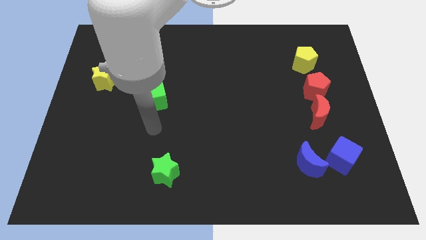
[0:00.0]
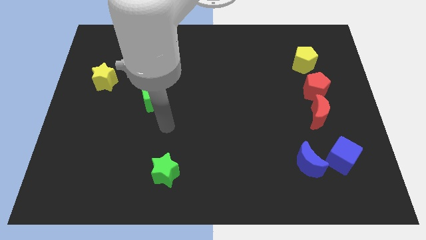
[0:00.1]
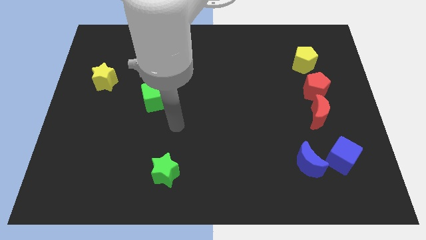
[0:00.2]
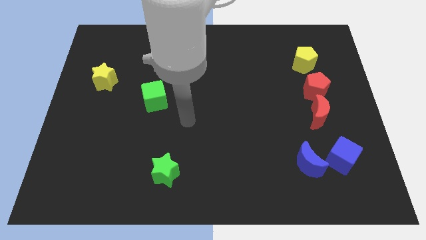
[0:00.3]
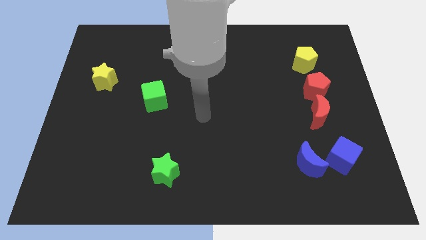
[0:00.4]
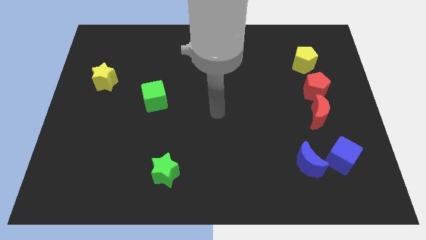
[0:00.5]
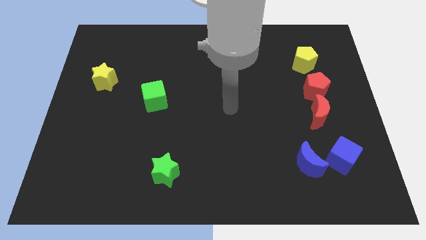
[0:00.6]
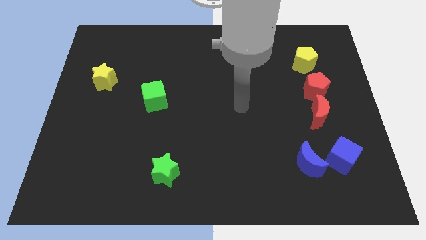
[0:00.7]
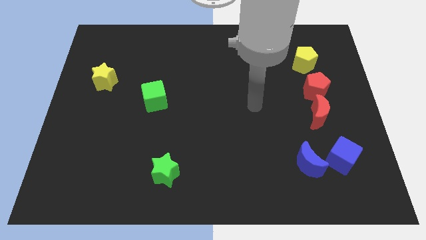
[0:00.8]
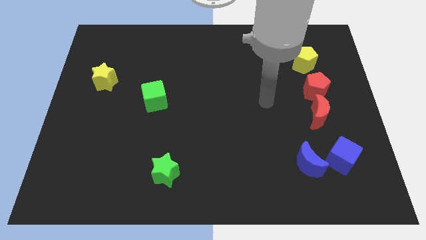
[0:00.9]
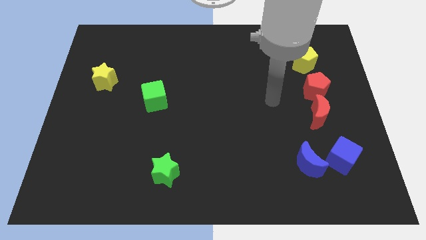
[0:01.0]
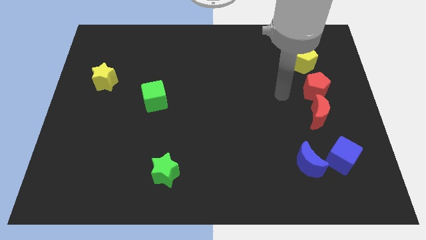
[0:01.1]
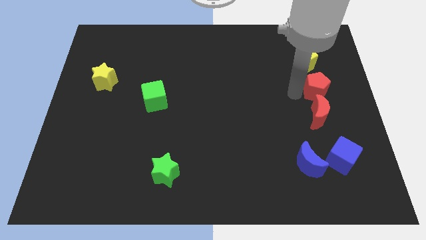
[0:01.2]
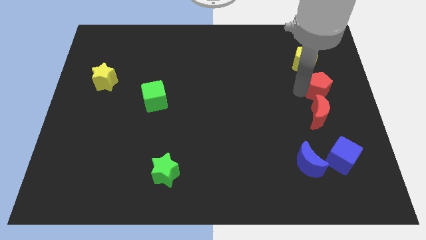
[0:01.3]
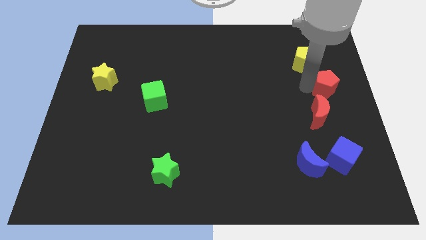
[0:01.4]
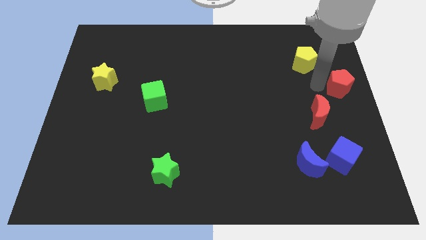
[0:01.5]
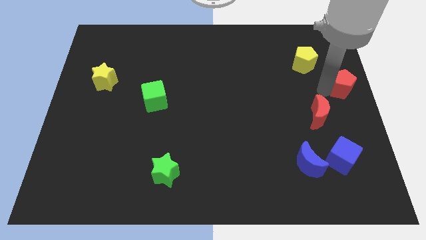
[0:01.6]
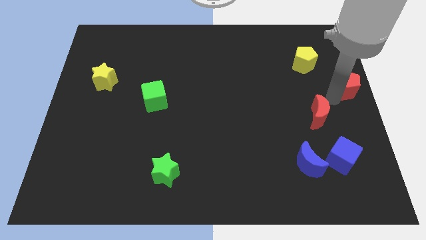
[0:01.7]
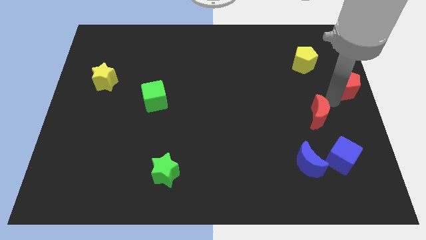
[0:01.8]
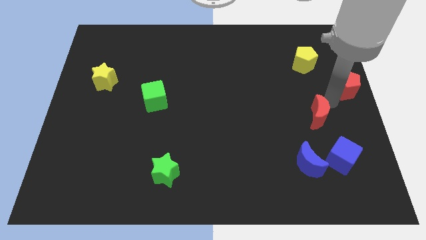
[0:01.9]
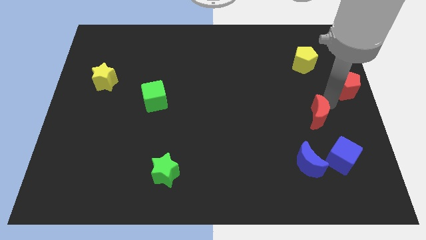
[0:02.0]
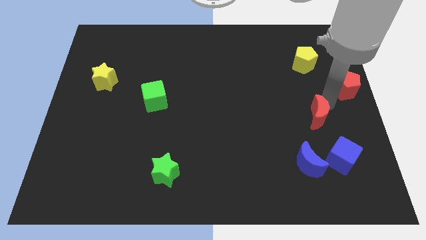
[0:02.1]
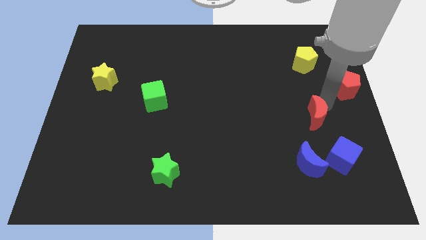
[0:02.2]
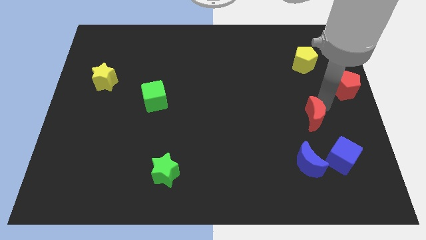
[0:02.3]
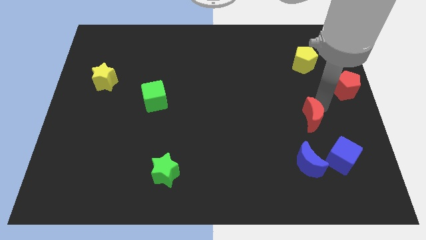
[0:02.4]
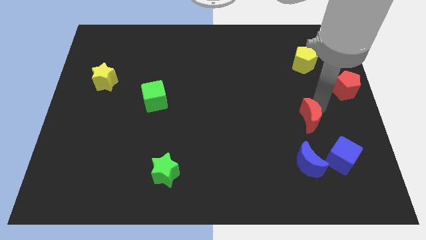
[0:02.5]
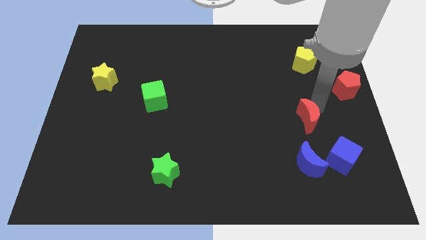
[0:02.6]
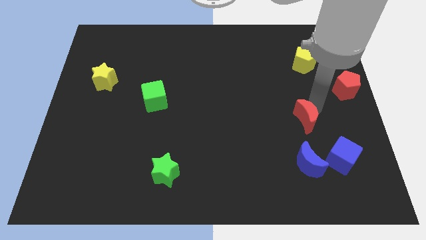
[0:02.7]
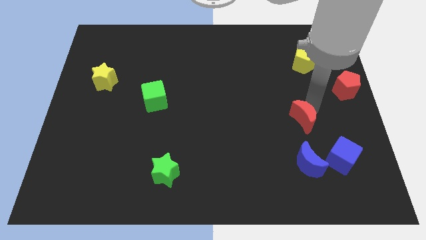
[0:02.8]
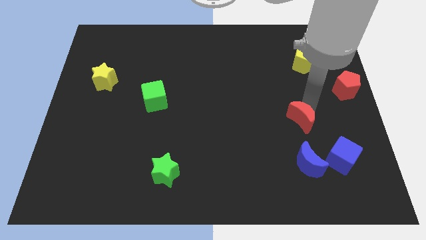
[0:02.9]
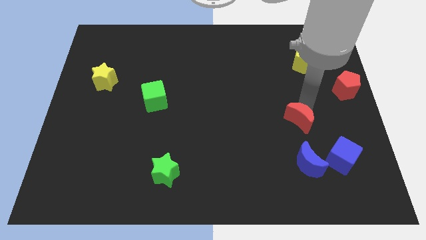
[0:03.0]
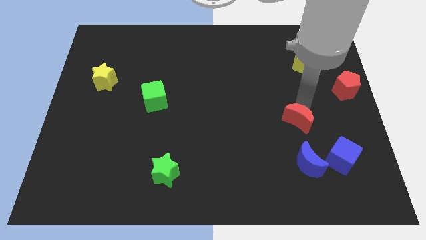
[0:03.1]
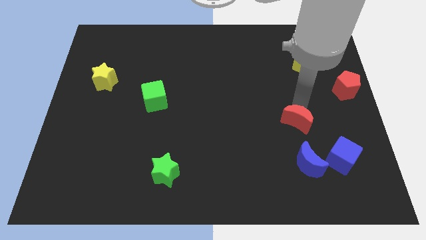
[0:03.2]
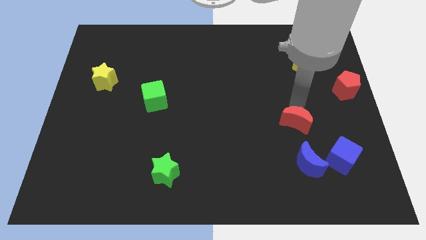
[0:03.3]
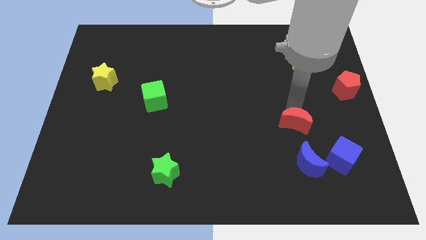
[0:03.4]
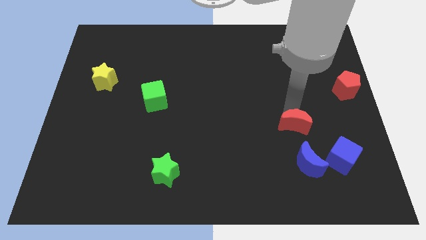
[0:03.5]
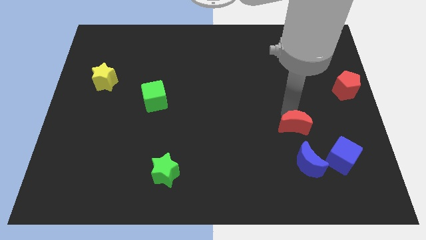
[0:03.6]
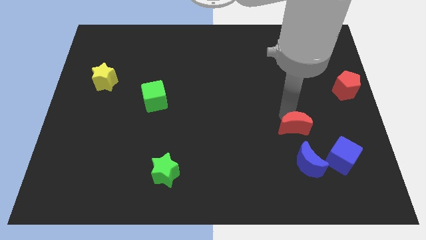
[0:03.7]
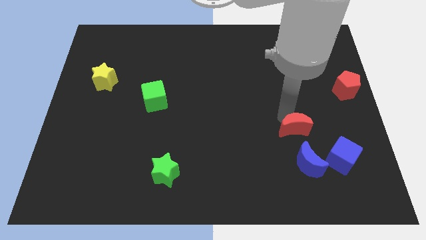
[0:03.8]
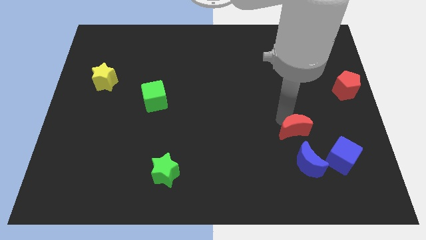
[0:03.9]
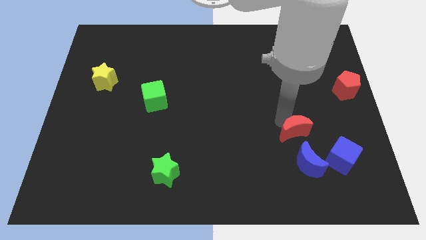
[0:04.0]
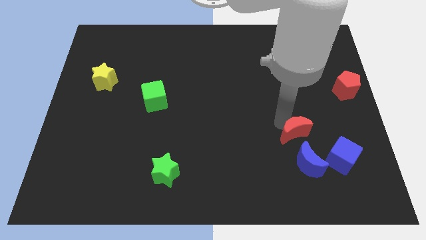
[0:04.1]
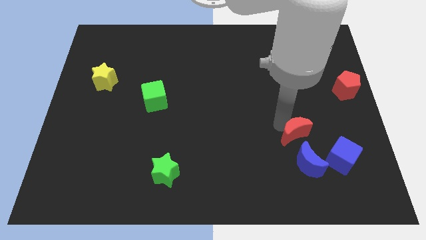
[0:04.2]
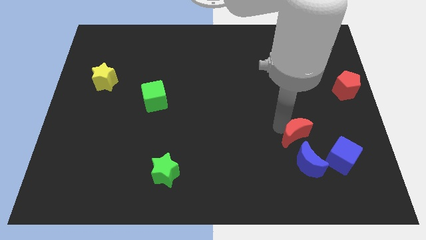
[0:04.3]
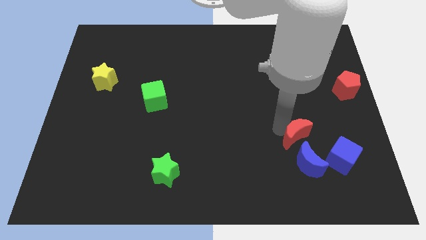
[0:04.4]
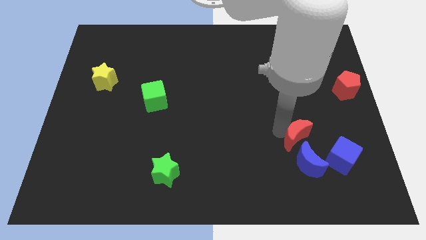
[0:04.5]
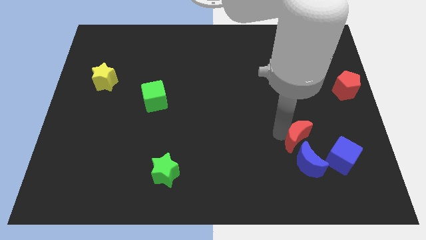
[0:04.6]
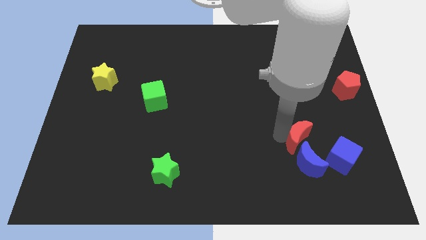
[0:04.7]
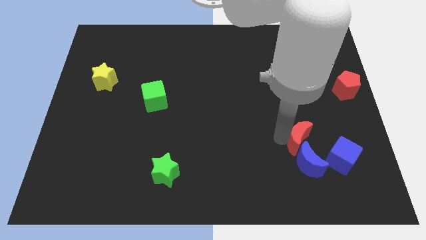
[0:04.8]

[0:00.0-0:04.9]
slide the red moon to the blue moon

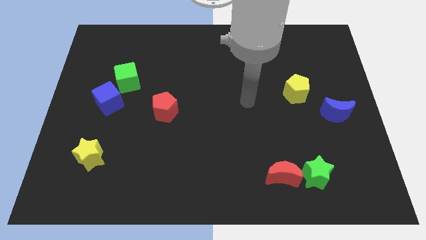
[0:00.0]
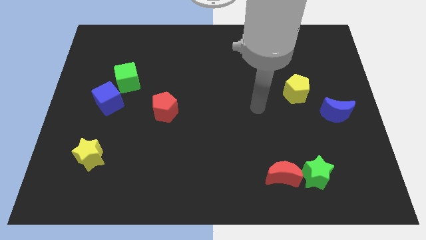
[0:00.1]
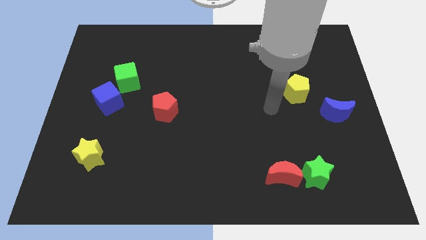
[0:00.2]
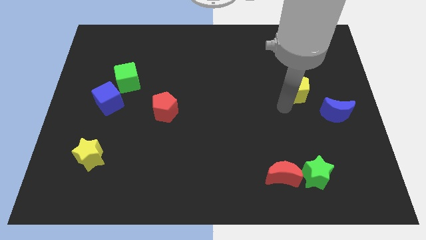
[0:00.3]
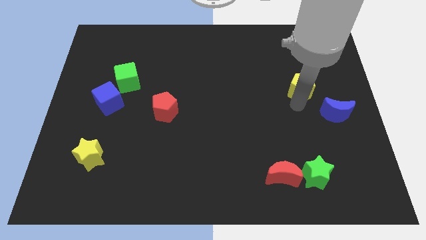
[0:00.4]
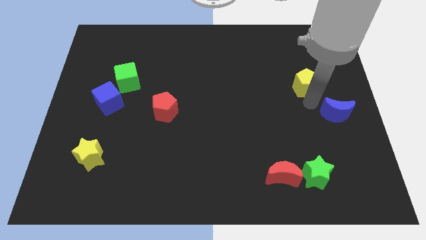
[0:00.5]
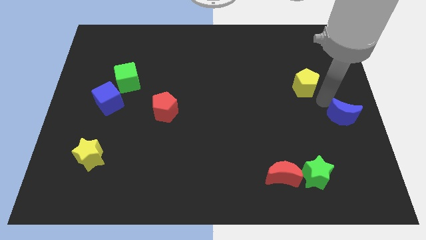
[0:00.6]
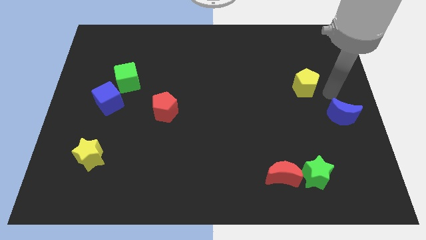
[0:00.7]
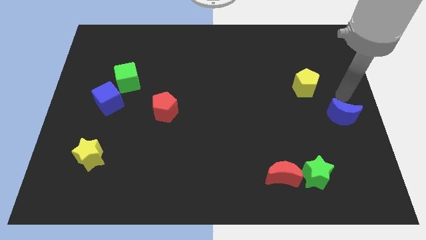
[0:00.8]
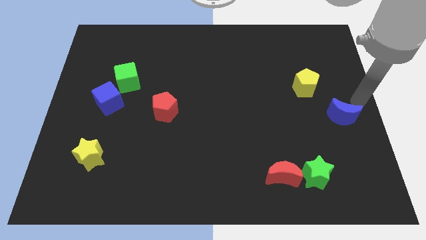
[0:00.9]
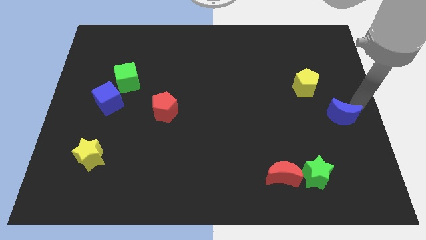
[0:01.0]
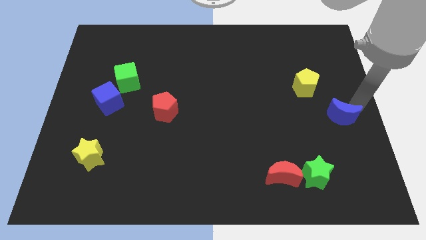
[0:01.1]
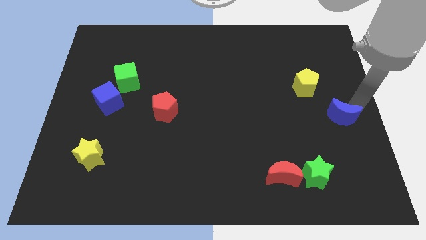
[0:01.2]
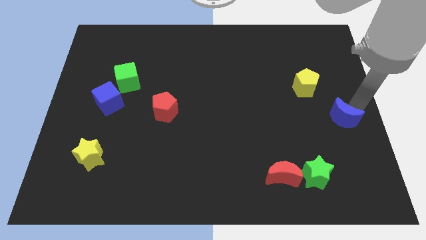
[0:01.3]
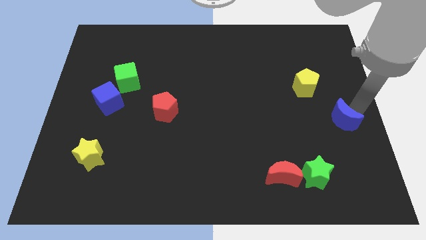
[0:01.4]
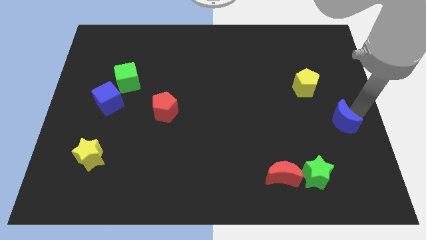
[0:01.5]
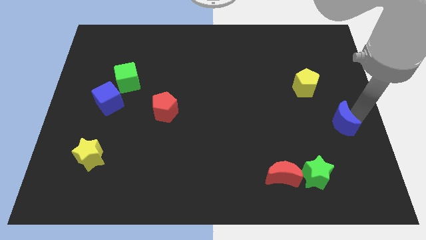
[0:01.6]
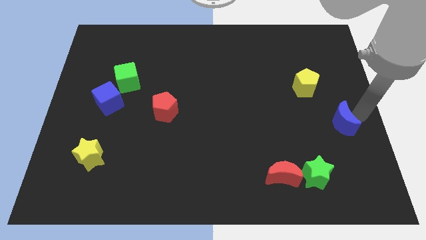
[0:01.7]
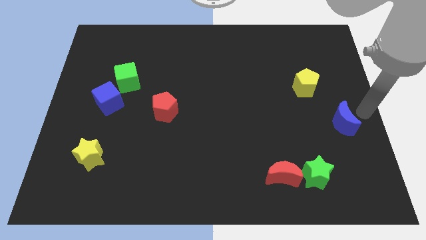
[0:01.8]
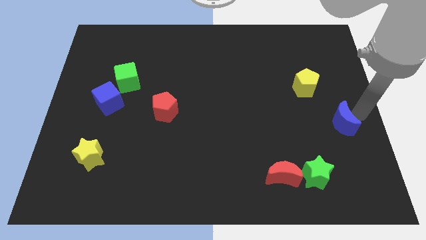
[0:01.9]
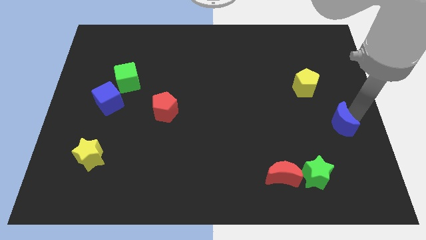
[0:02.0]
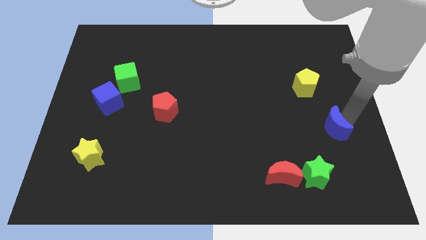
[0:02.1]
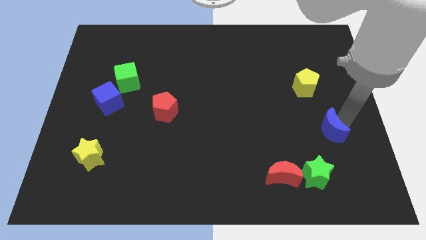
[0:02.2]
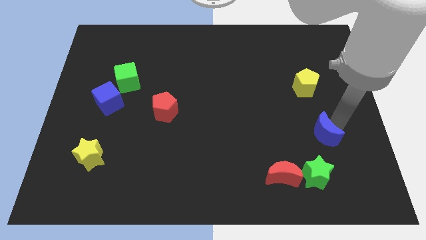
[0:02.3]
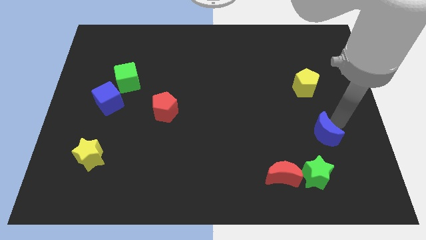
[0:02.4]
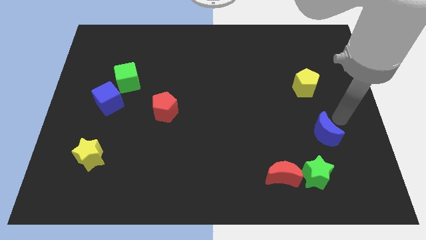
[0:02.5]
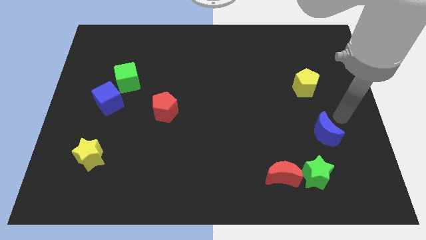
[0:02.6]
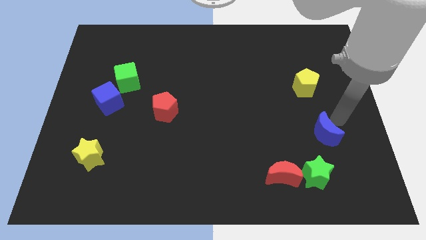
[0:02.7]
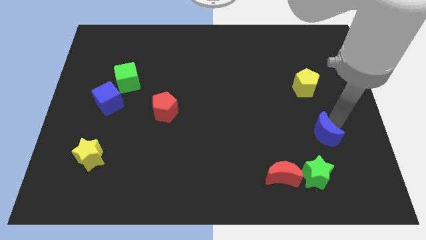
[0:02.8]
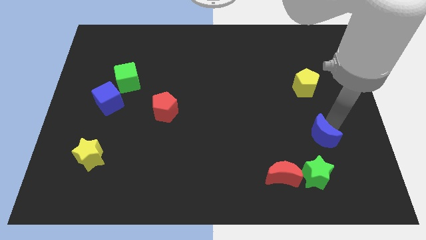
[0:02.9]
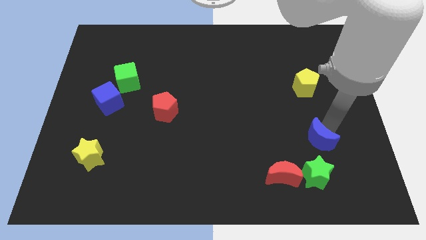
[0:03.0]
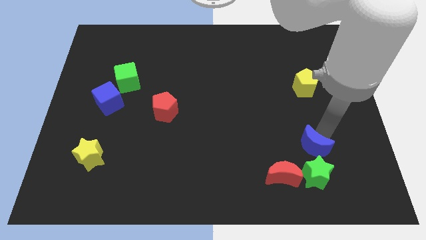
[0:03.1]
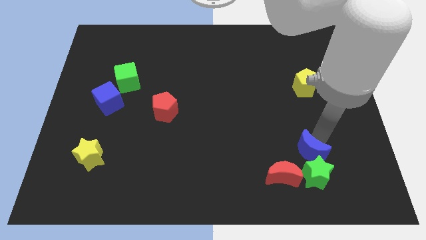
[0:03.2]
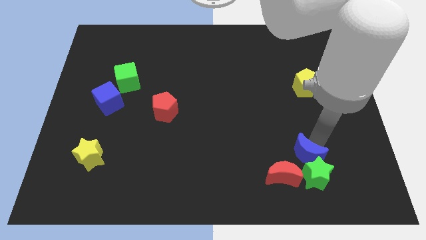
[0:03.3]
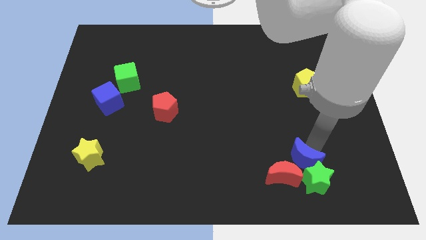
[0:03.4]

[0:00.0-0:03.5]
push the blue moon close to the red moon
